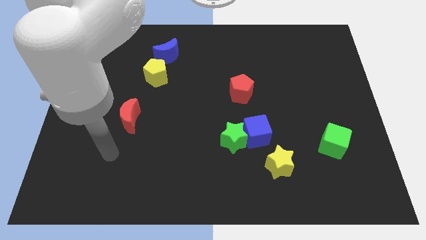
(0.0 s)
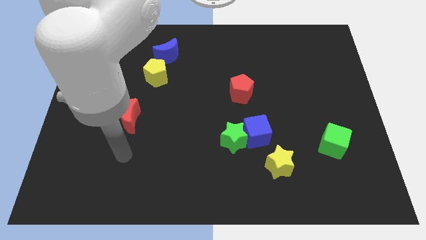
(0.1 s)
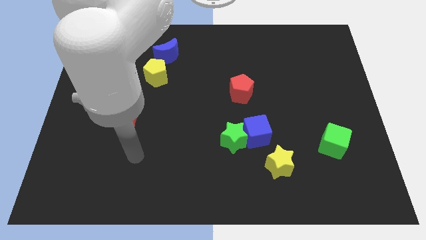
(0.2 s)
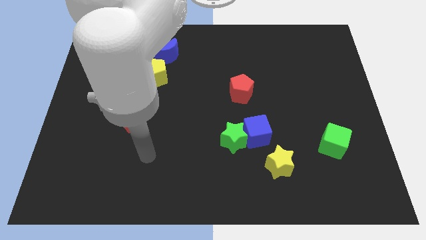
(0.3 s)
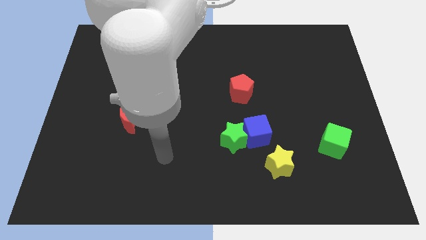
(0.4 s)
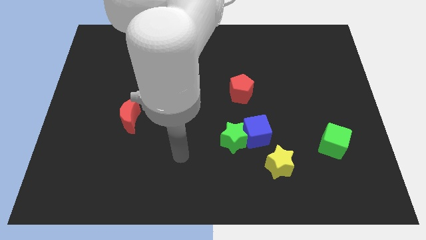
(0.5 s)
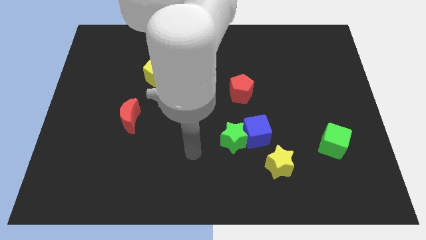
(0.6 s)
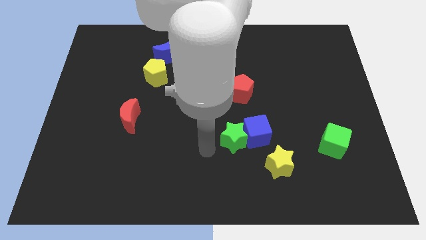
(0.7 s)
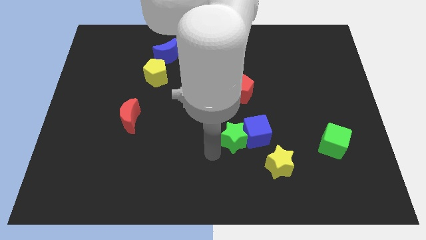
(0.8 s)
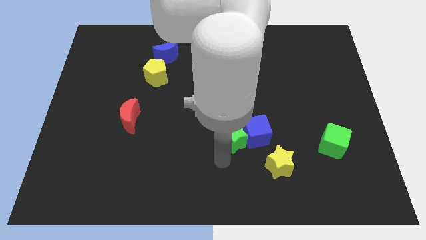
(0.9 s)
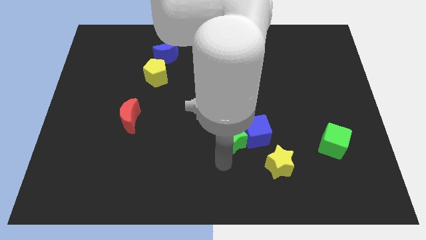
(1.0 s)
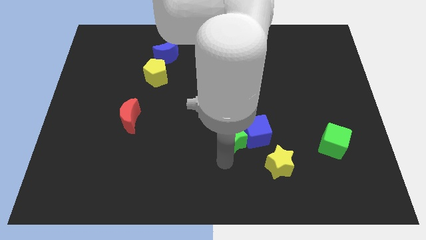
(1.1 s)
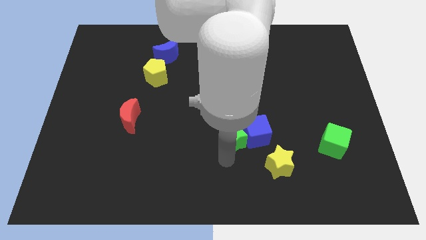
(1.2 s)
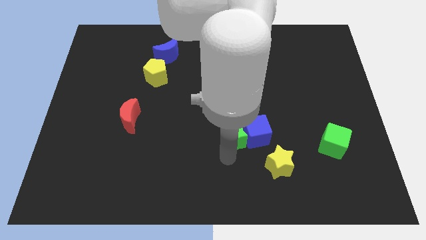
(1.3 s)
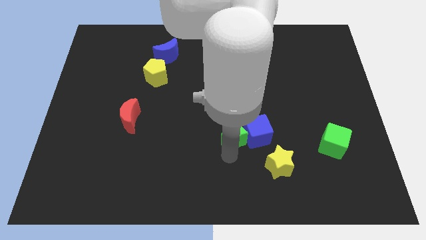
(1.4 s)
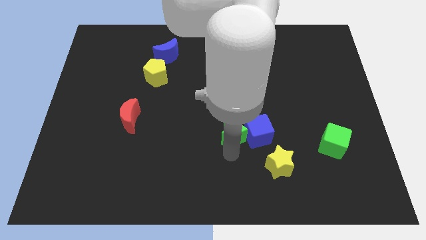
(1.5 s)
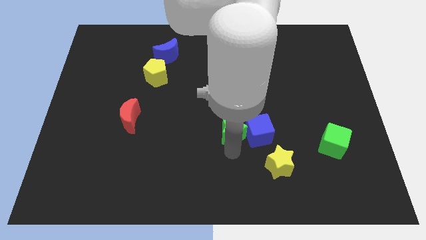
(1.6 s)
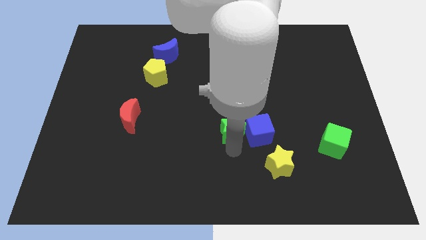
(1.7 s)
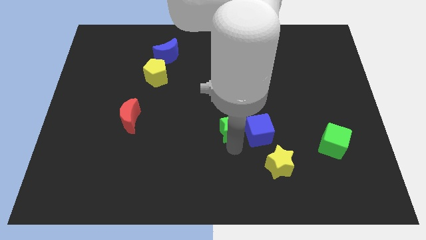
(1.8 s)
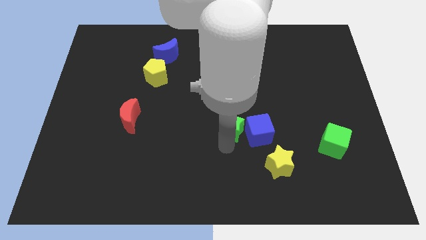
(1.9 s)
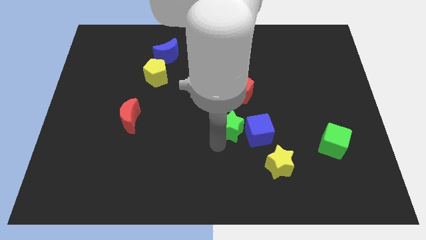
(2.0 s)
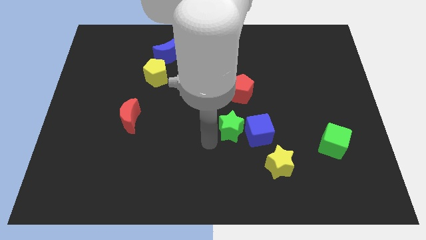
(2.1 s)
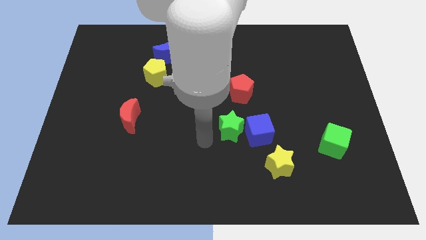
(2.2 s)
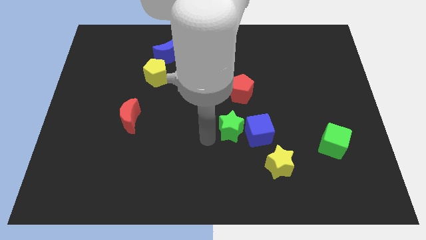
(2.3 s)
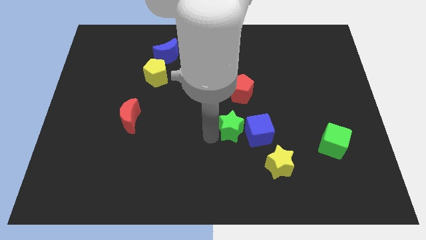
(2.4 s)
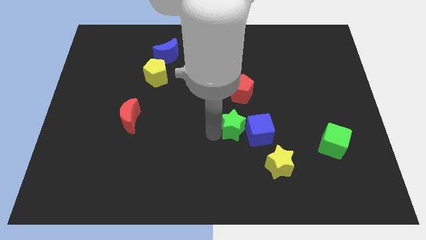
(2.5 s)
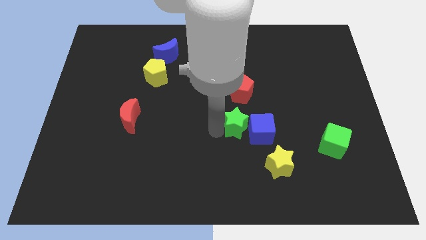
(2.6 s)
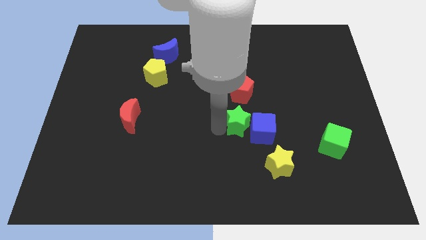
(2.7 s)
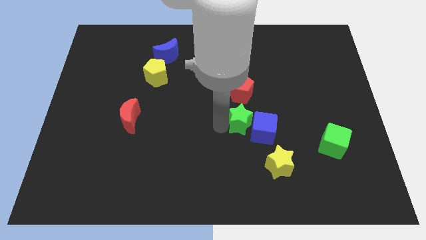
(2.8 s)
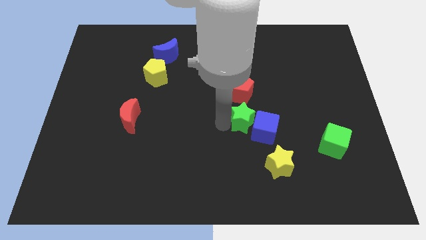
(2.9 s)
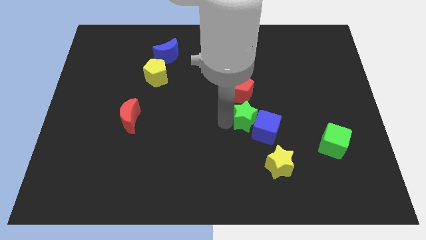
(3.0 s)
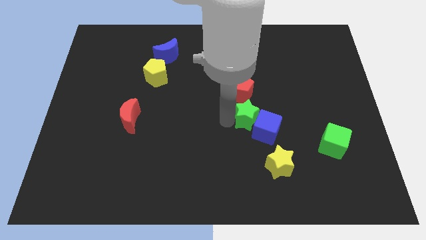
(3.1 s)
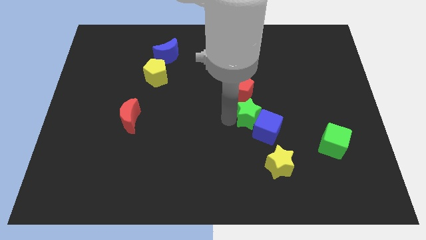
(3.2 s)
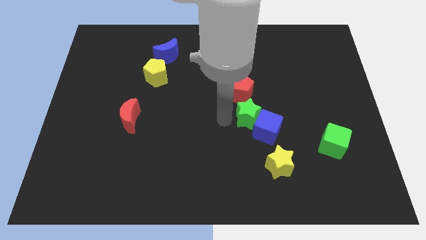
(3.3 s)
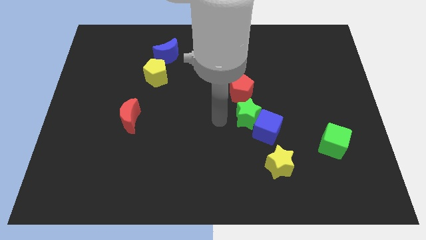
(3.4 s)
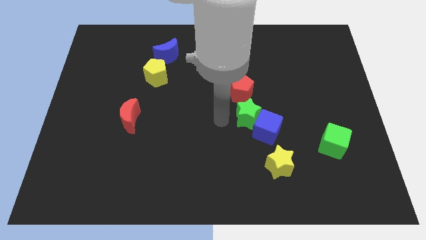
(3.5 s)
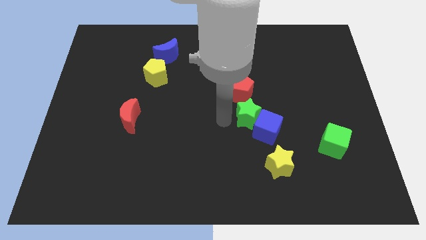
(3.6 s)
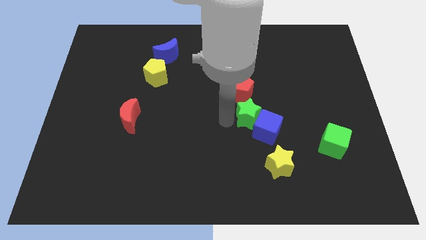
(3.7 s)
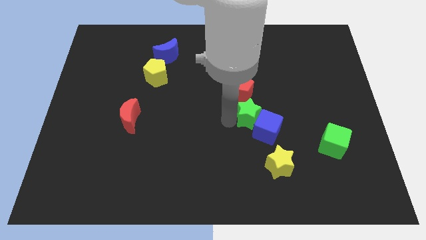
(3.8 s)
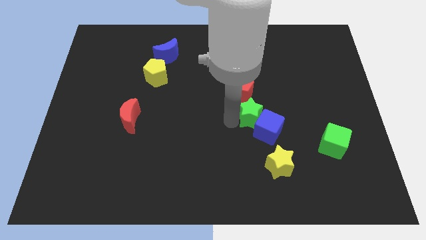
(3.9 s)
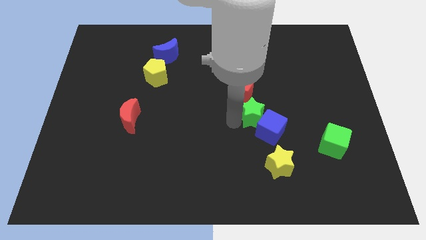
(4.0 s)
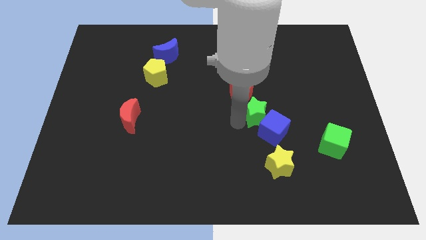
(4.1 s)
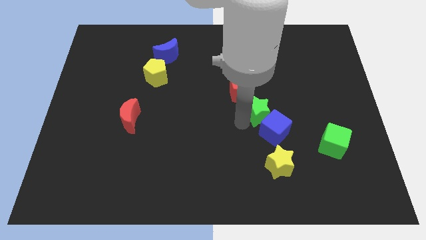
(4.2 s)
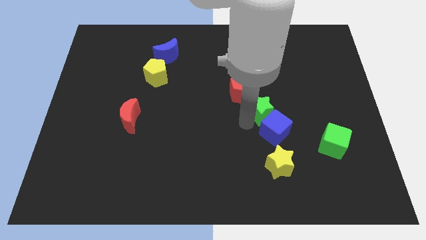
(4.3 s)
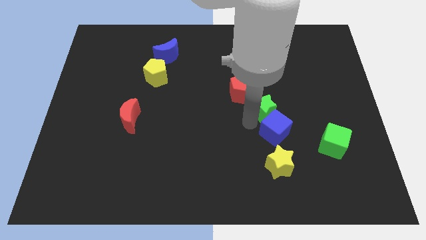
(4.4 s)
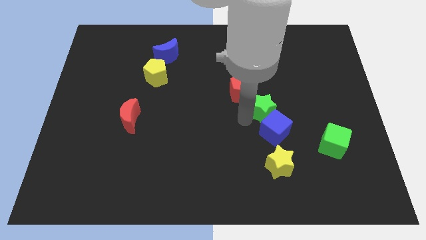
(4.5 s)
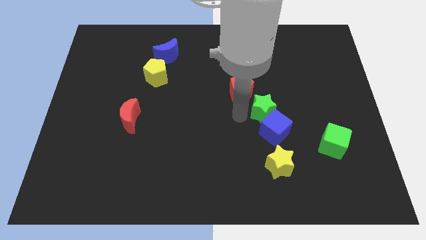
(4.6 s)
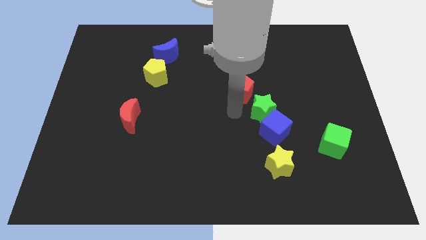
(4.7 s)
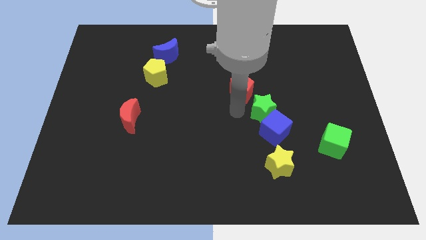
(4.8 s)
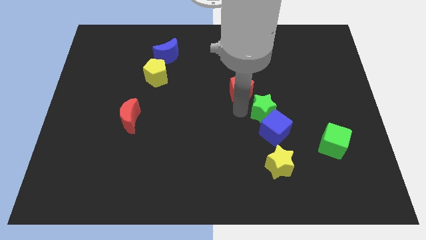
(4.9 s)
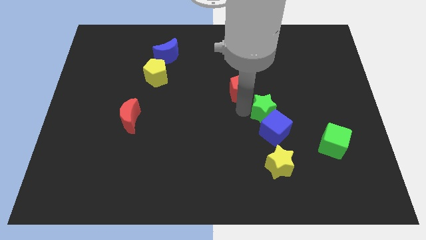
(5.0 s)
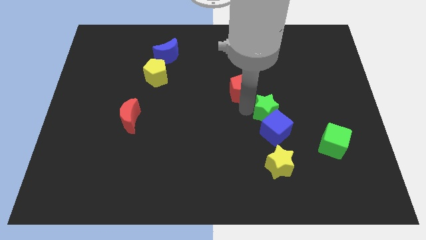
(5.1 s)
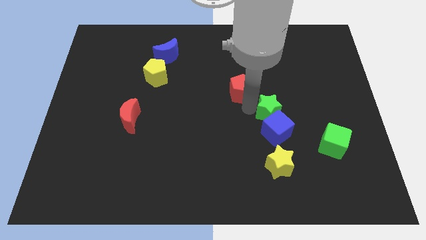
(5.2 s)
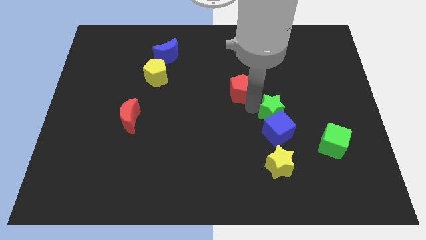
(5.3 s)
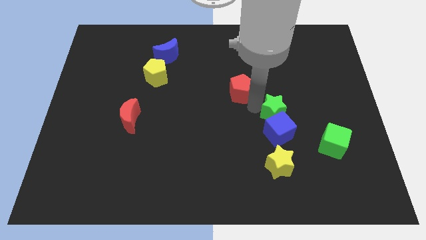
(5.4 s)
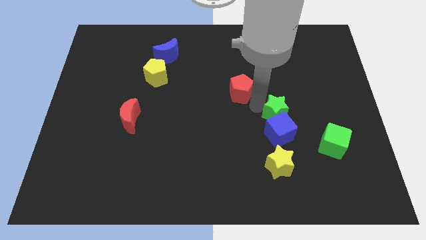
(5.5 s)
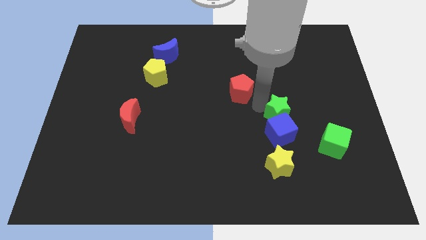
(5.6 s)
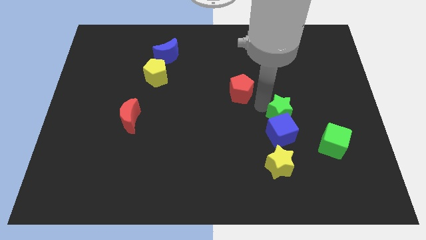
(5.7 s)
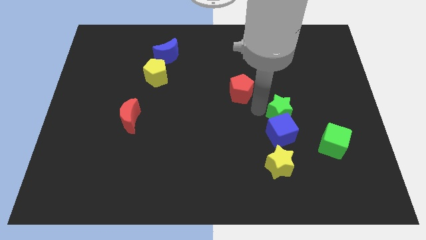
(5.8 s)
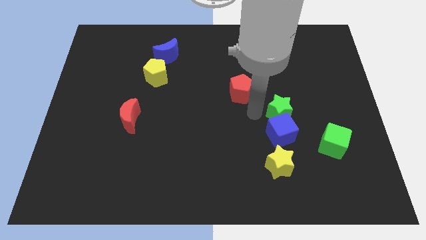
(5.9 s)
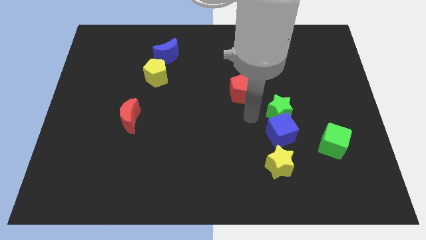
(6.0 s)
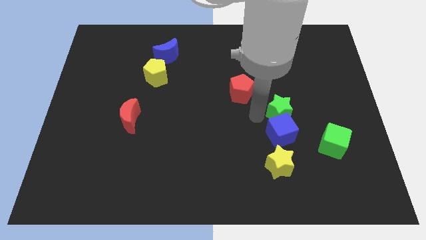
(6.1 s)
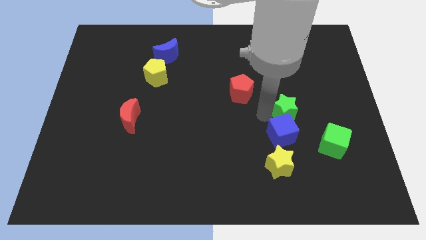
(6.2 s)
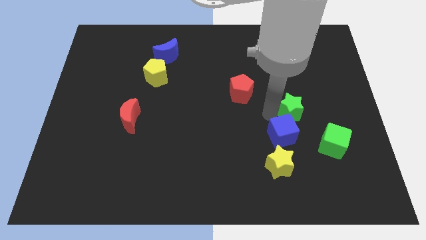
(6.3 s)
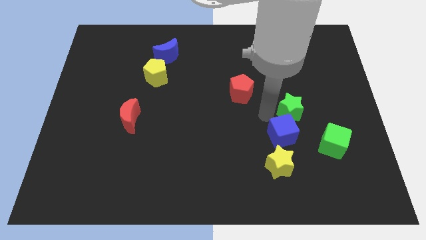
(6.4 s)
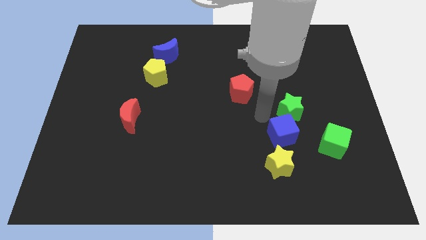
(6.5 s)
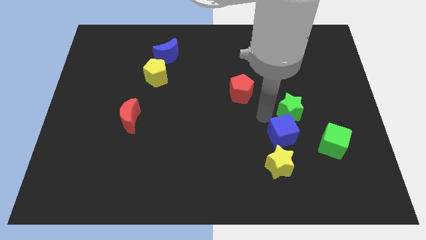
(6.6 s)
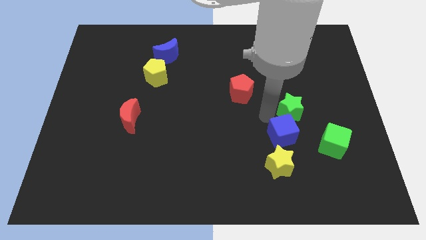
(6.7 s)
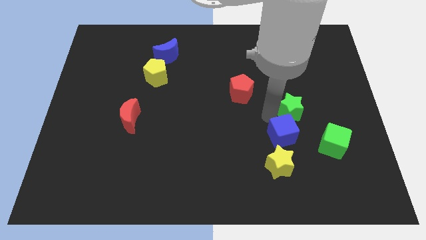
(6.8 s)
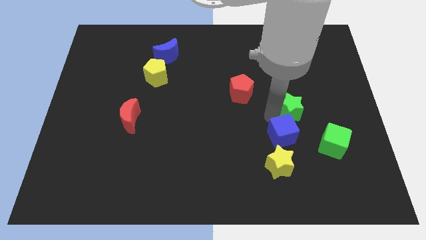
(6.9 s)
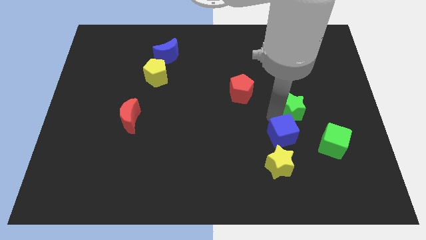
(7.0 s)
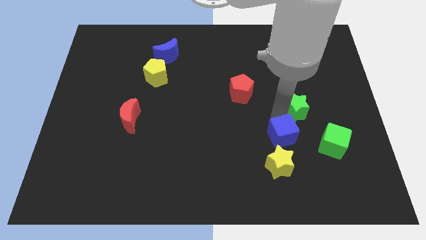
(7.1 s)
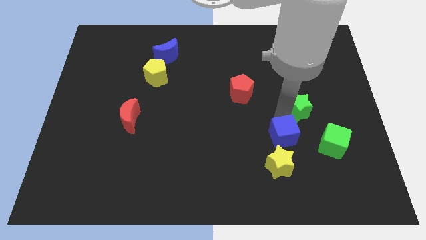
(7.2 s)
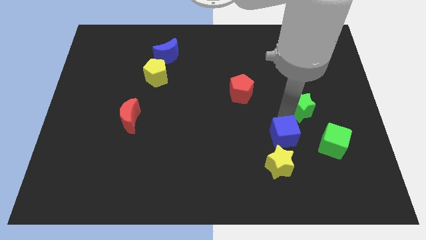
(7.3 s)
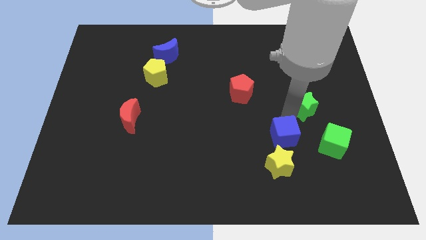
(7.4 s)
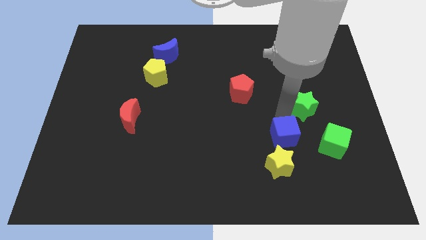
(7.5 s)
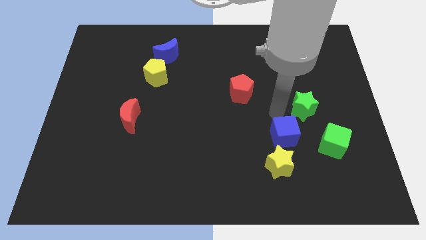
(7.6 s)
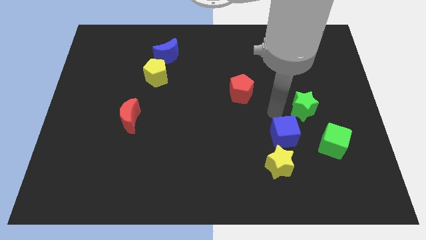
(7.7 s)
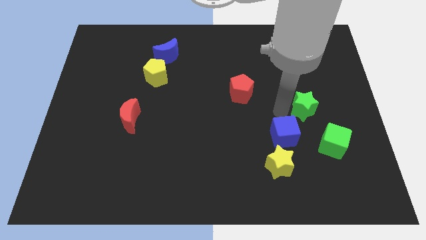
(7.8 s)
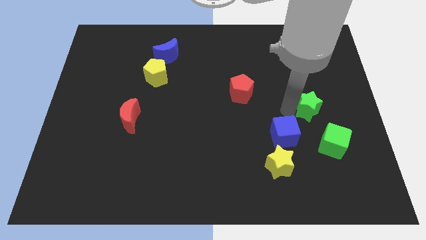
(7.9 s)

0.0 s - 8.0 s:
move the green star to the top side of the green cube
